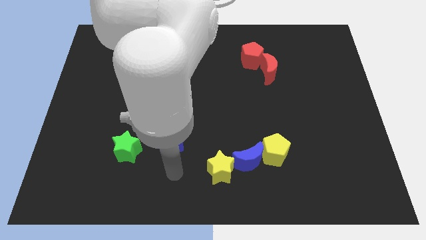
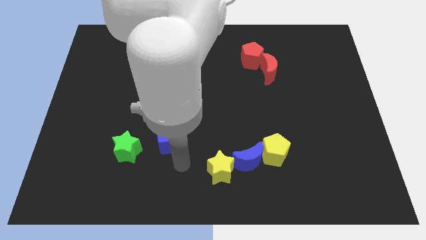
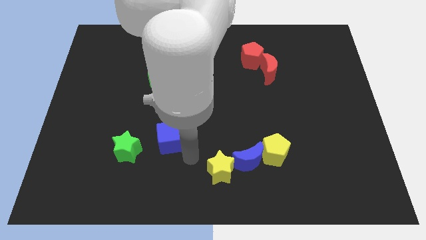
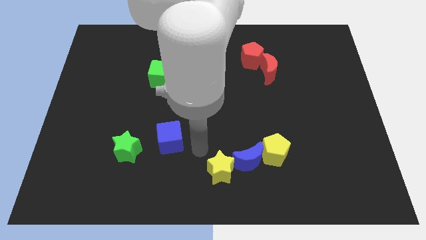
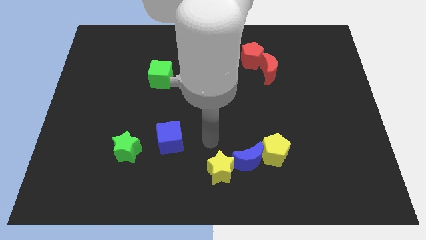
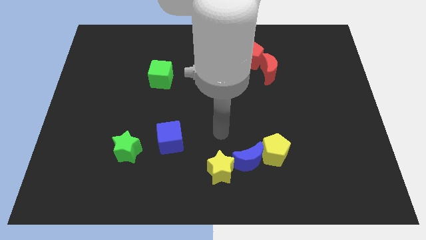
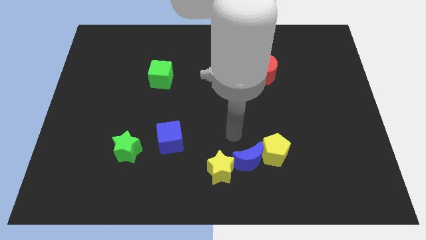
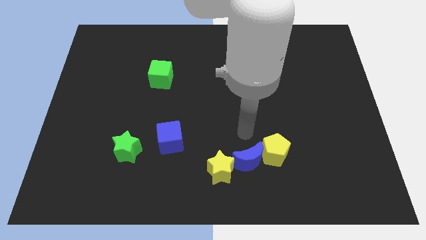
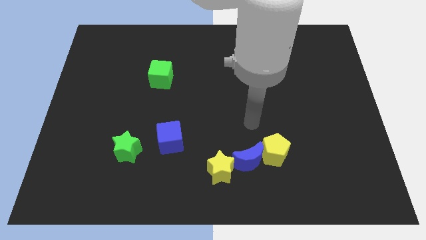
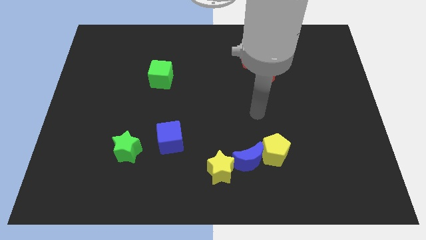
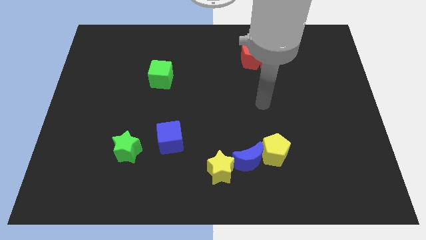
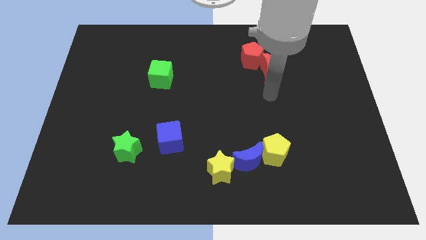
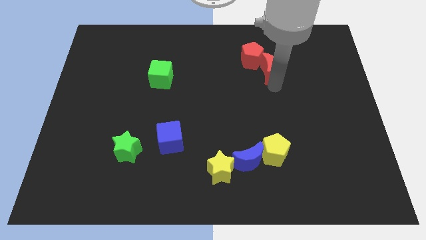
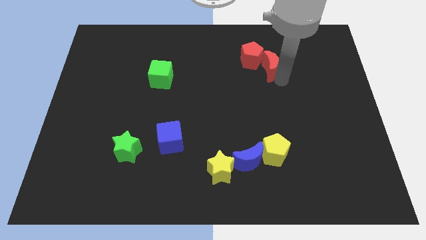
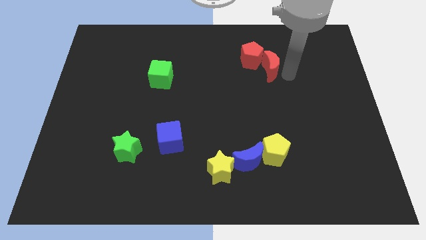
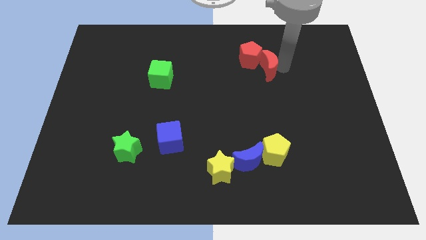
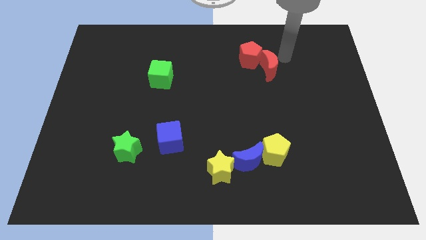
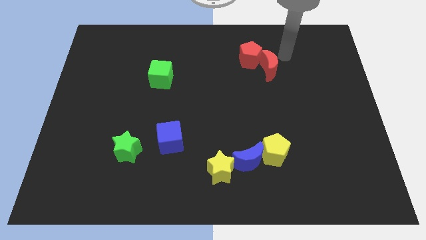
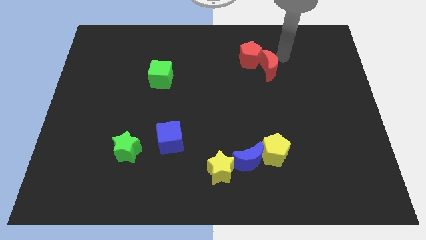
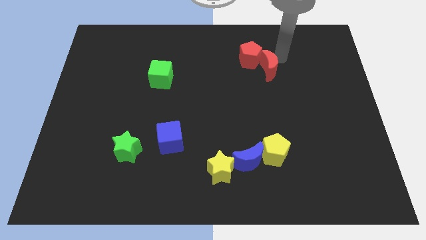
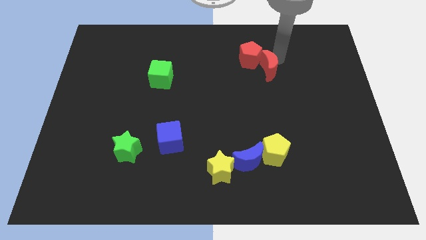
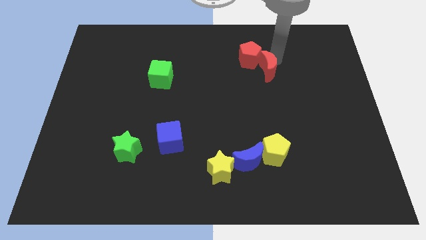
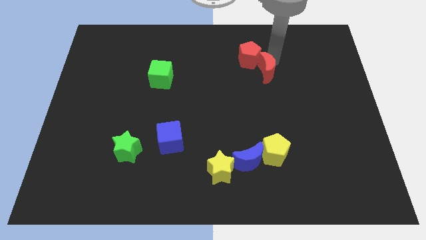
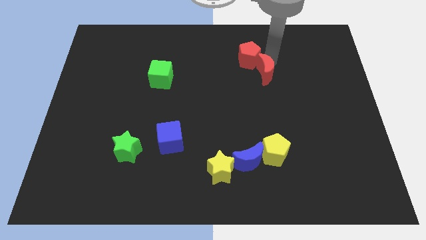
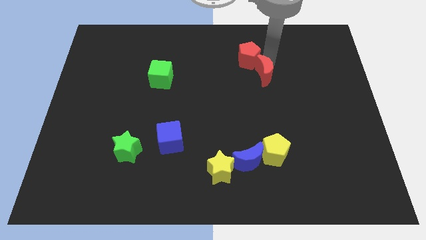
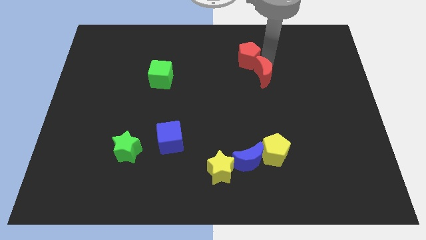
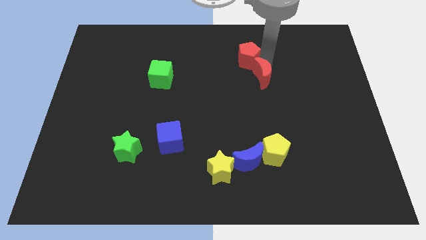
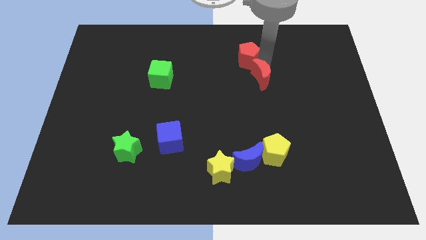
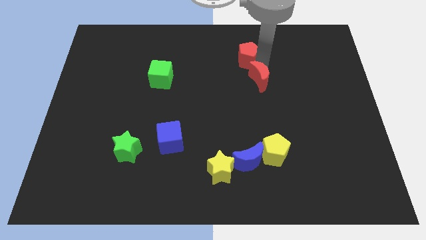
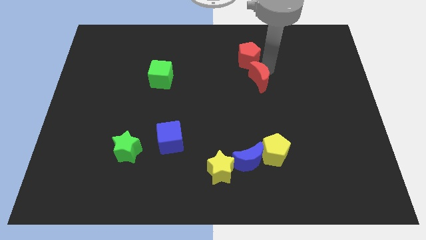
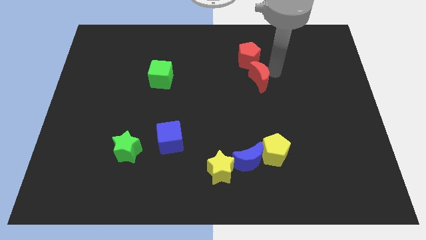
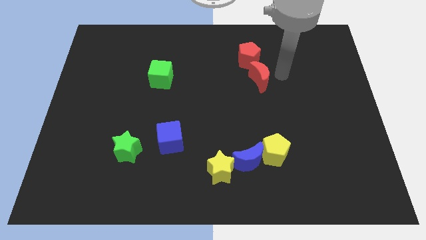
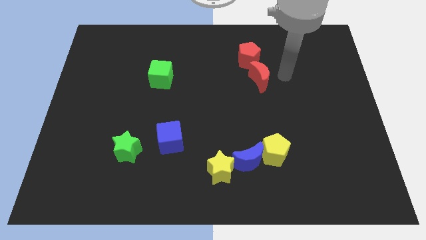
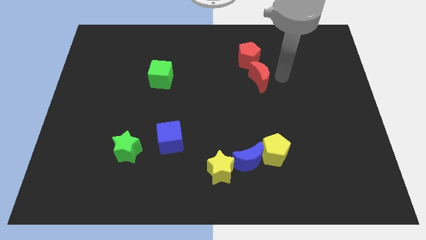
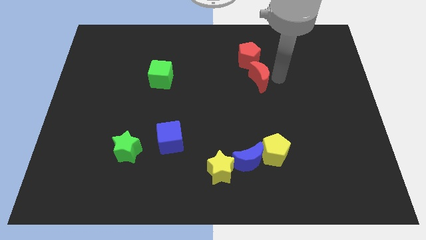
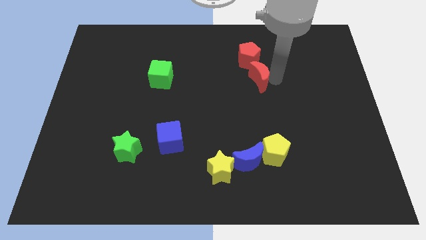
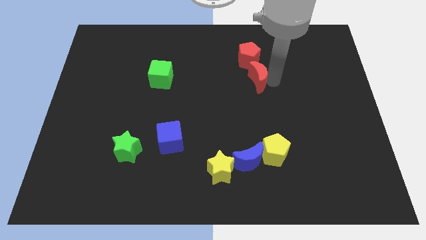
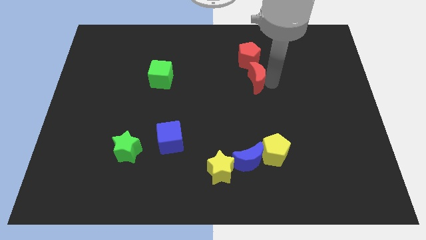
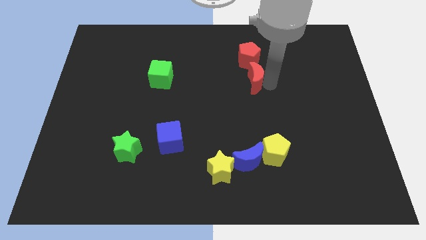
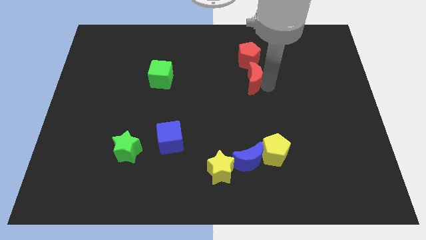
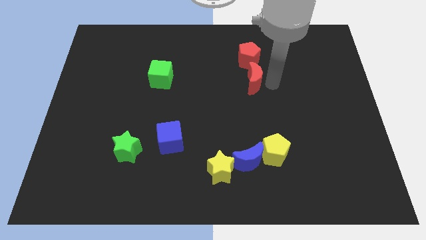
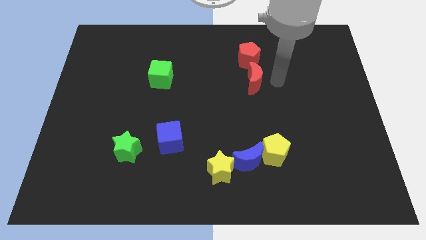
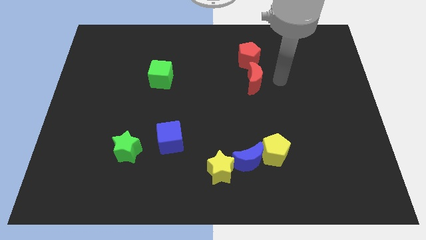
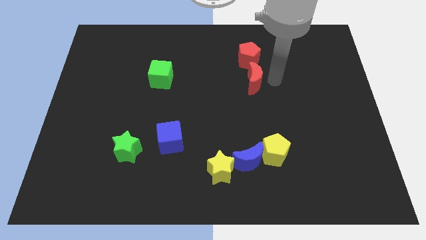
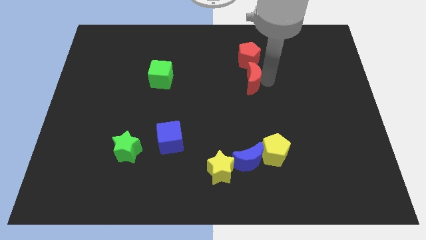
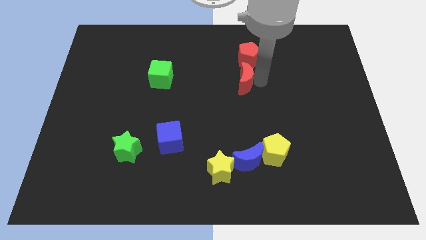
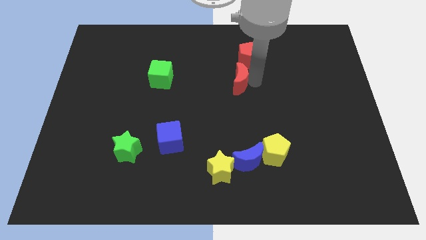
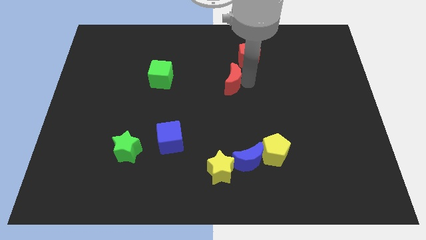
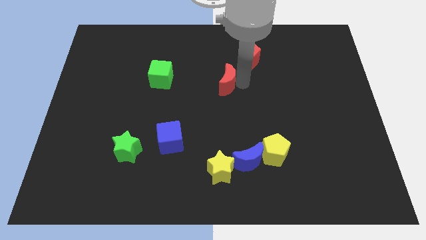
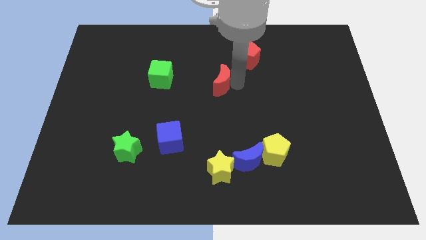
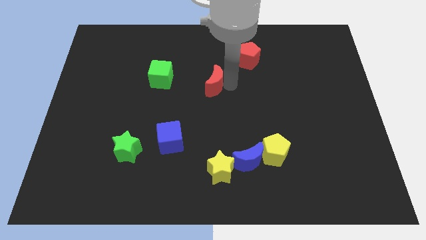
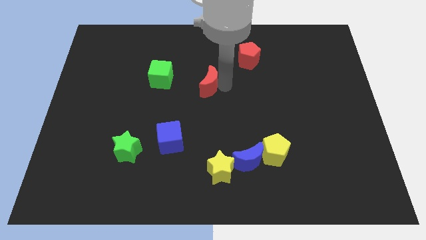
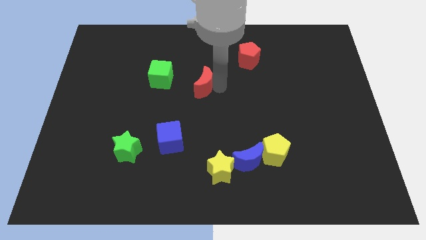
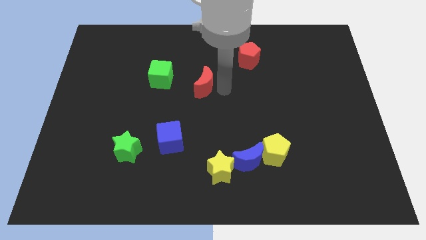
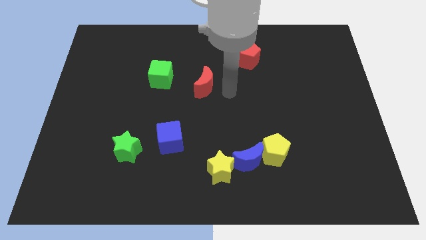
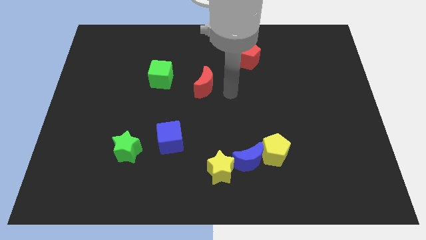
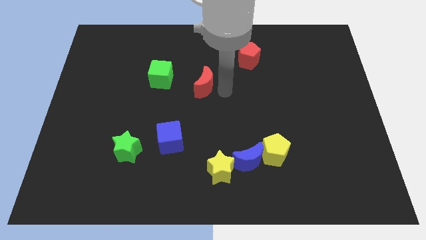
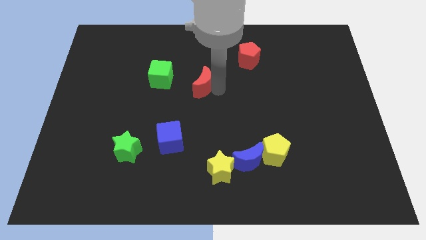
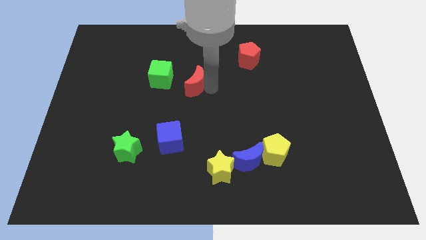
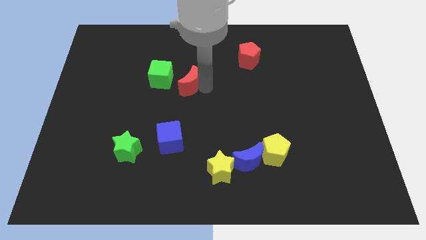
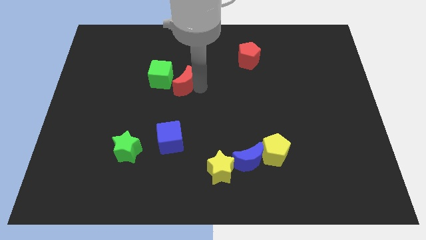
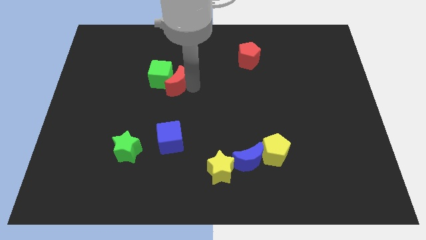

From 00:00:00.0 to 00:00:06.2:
put the red moon to the green cube

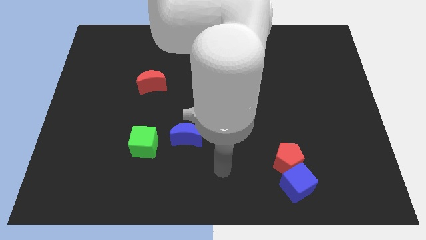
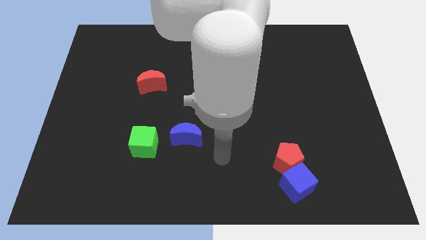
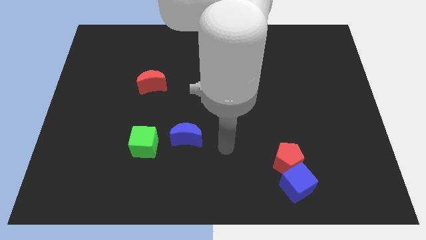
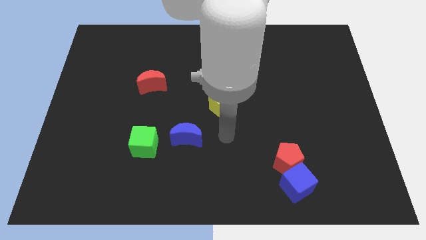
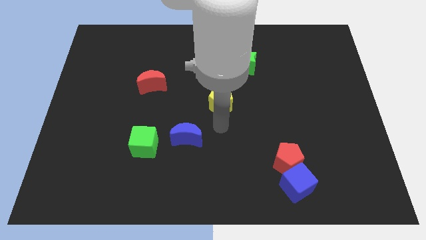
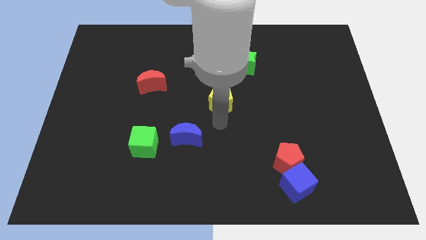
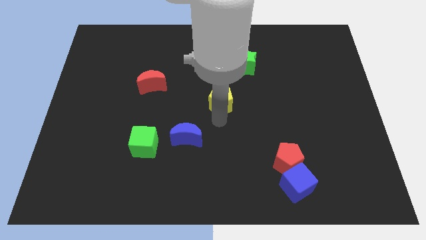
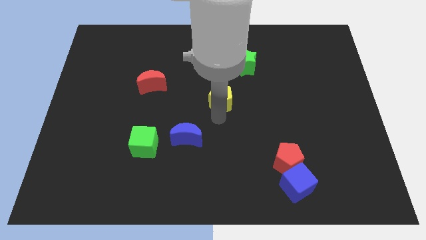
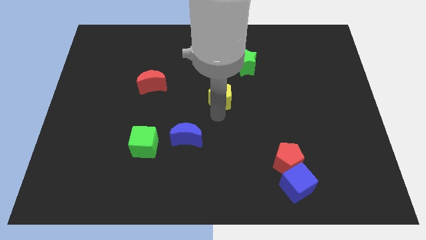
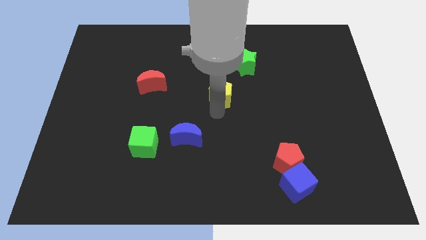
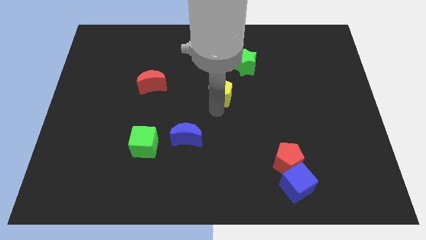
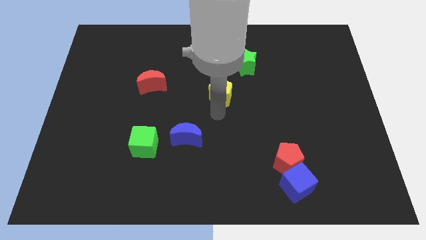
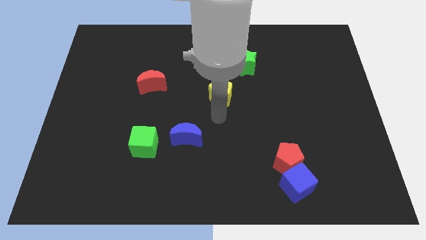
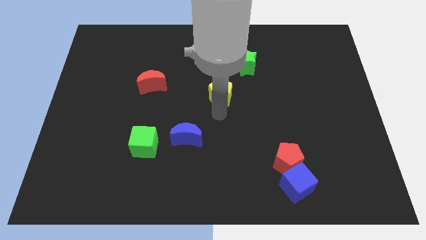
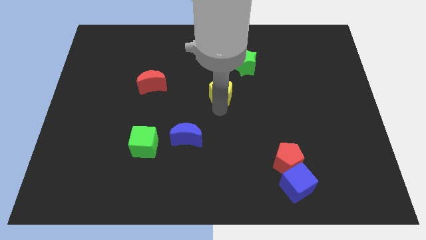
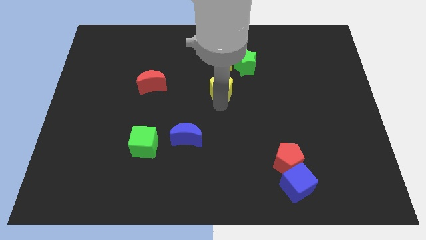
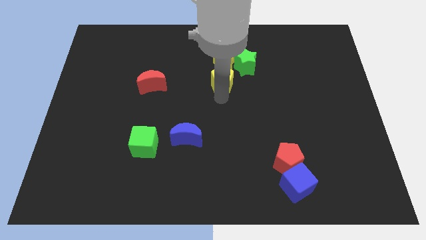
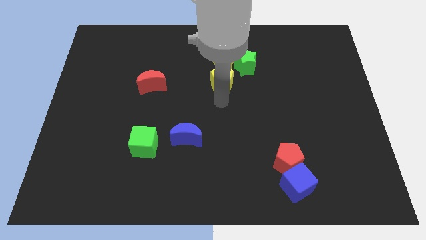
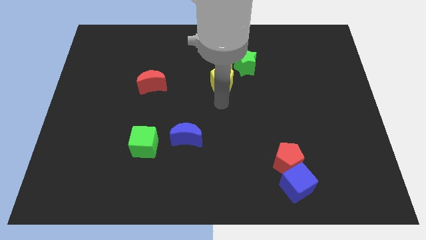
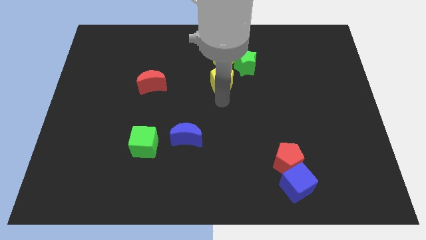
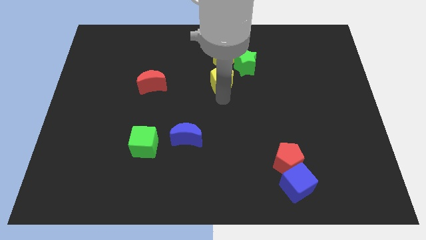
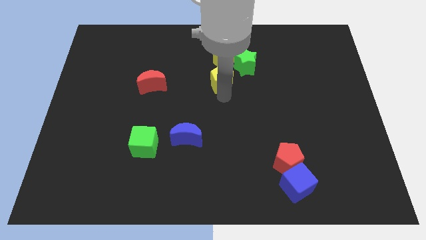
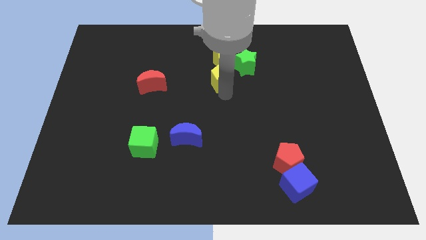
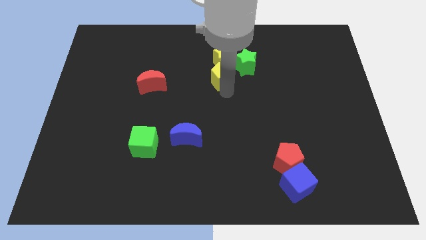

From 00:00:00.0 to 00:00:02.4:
put the yellow pentagon next to the yellow star
